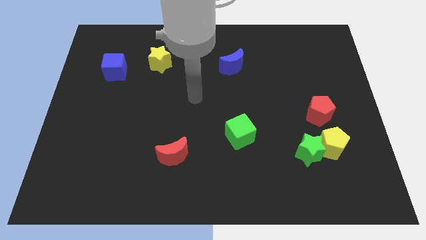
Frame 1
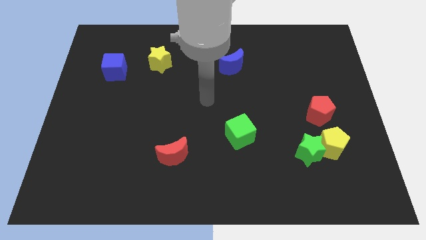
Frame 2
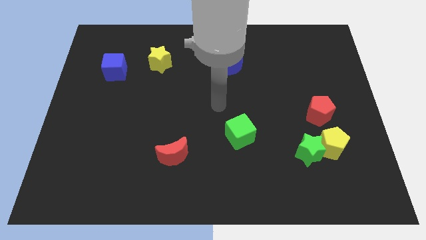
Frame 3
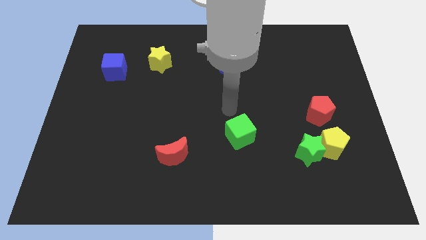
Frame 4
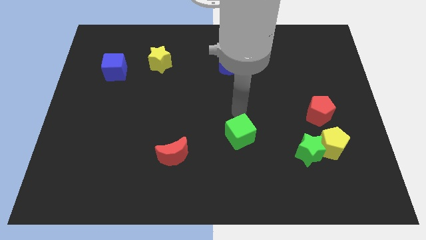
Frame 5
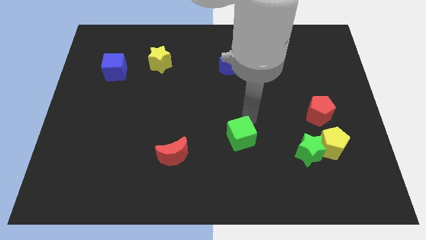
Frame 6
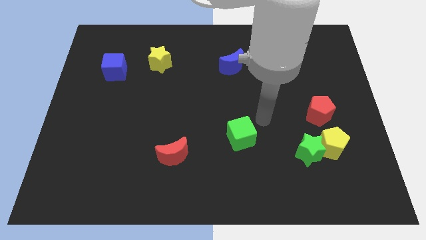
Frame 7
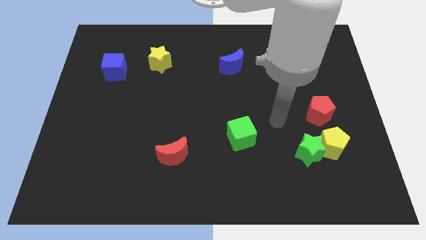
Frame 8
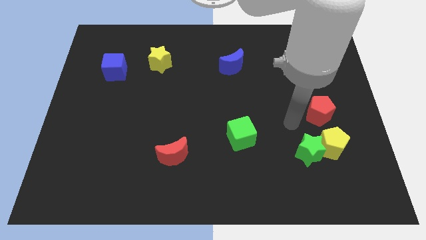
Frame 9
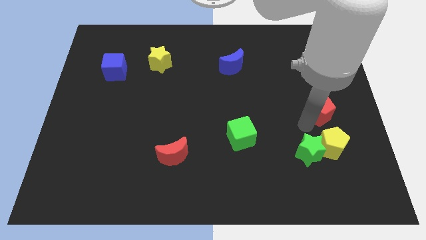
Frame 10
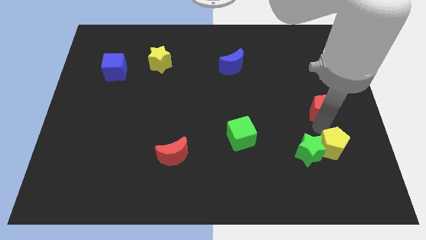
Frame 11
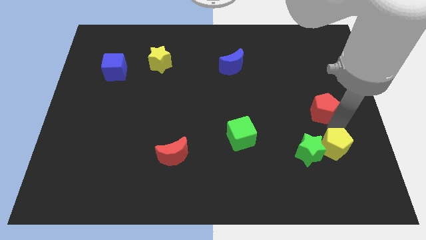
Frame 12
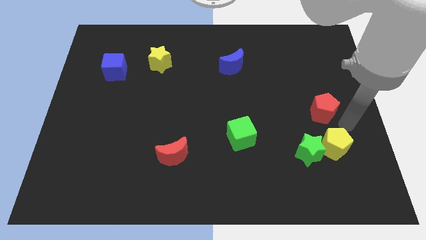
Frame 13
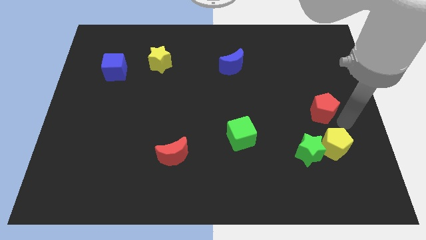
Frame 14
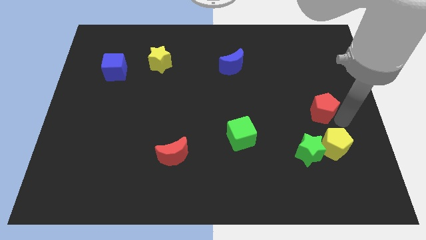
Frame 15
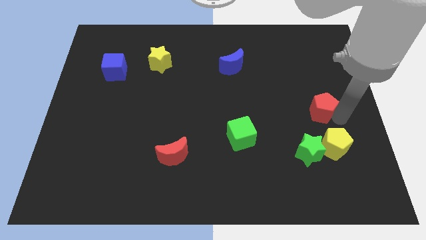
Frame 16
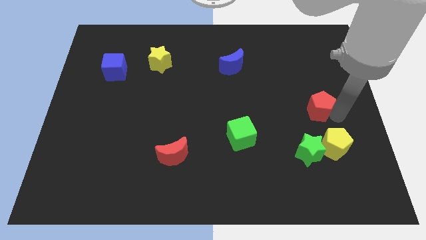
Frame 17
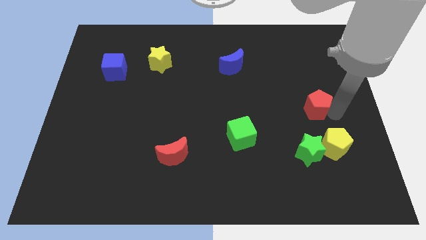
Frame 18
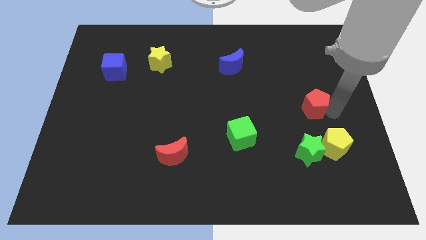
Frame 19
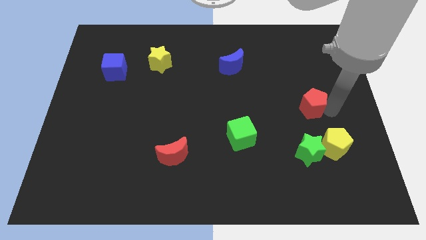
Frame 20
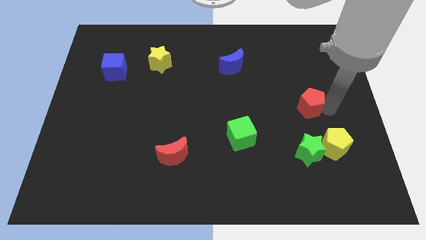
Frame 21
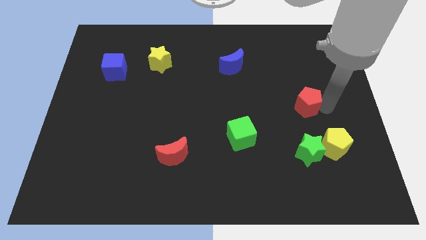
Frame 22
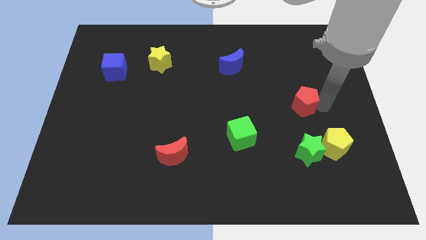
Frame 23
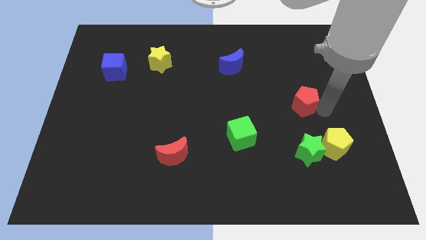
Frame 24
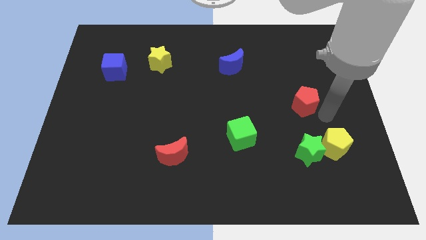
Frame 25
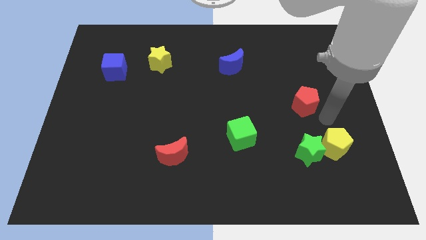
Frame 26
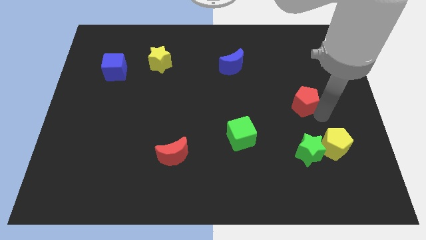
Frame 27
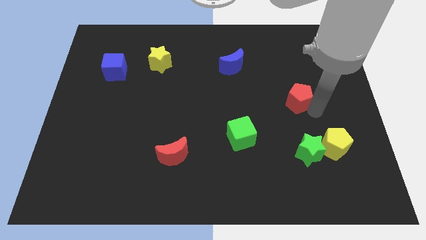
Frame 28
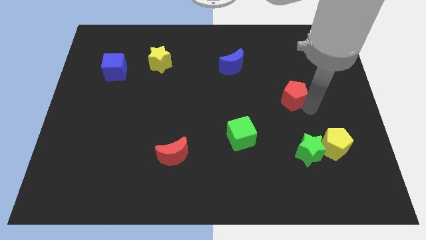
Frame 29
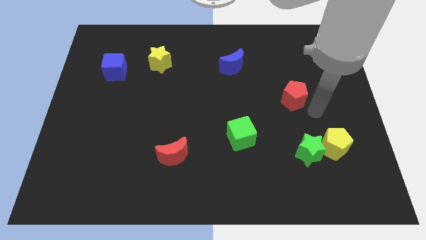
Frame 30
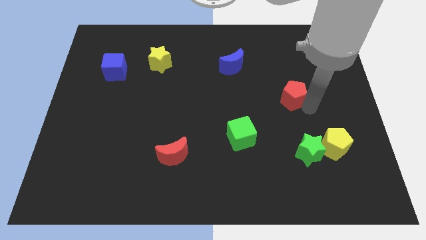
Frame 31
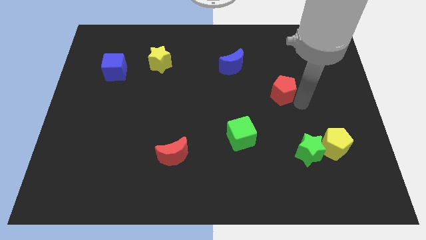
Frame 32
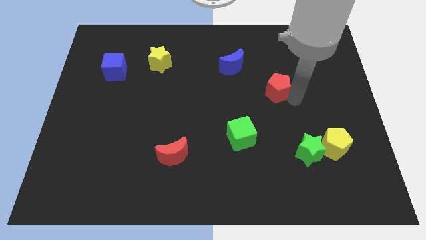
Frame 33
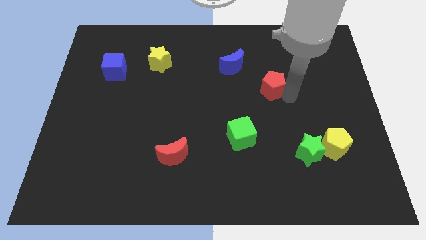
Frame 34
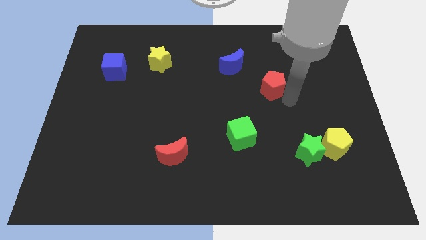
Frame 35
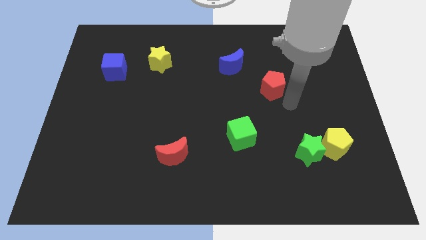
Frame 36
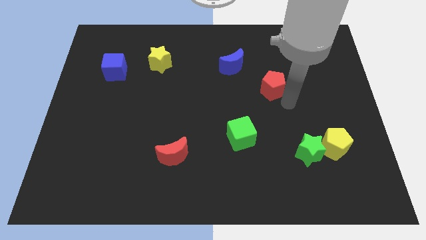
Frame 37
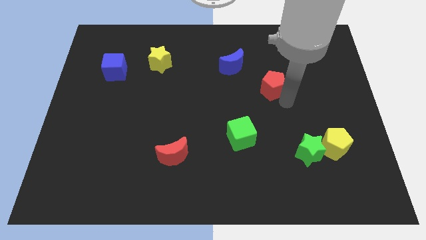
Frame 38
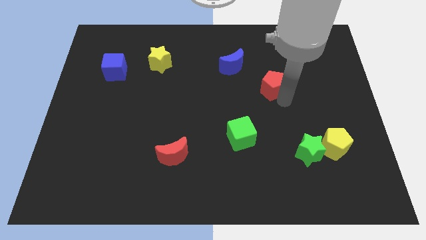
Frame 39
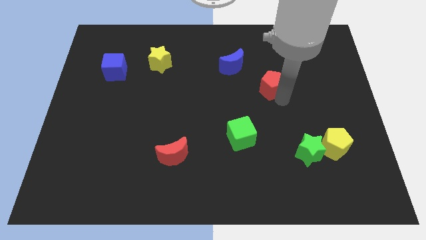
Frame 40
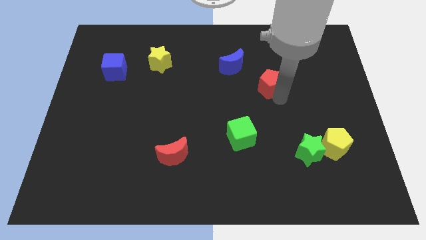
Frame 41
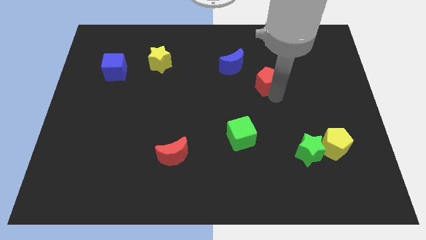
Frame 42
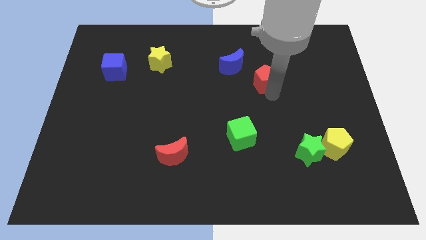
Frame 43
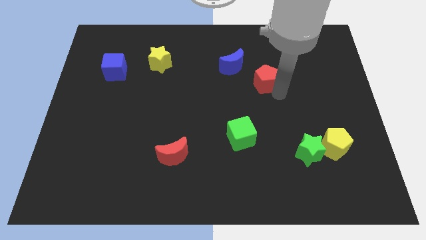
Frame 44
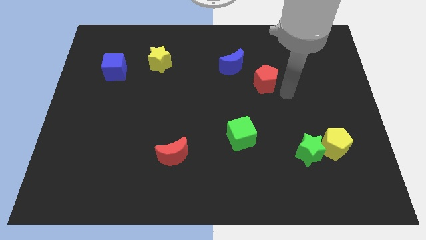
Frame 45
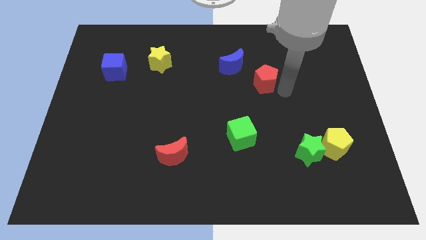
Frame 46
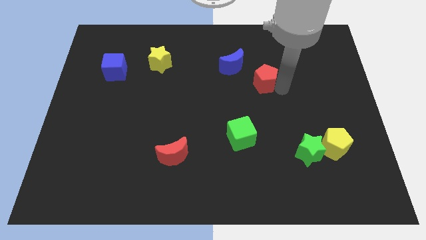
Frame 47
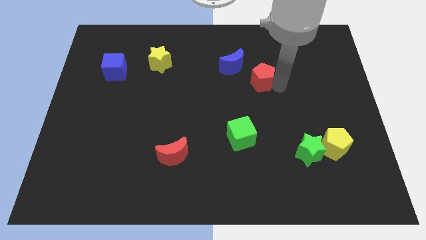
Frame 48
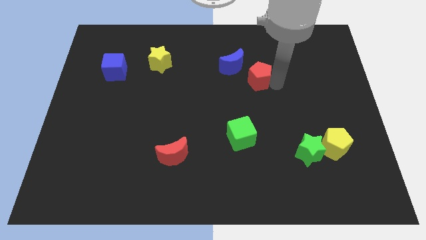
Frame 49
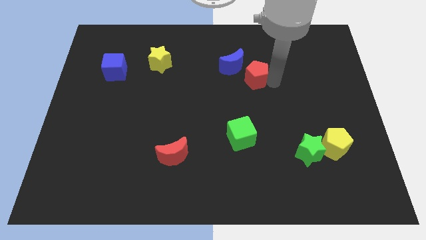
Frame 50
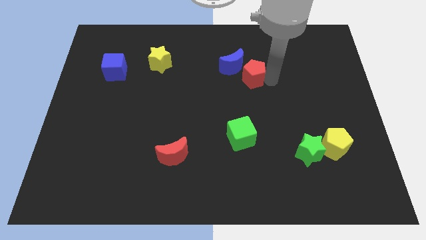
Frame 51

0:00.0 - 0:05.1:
push the red pentagon towards the blue moon

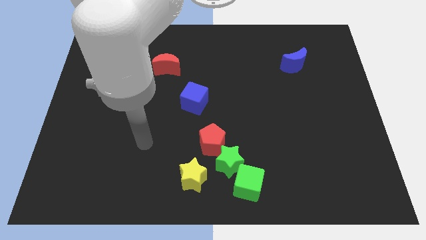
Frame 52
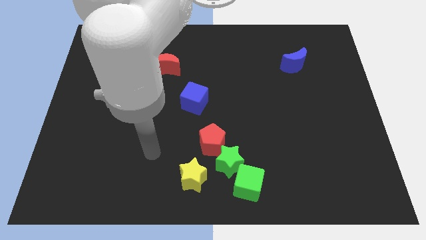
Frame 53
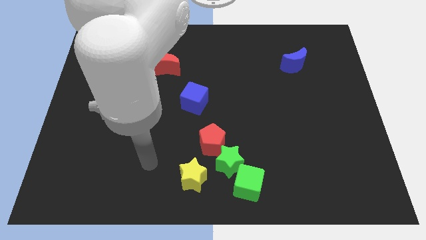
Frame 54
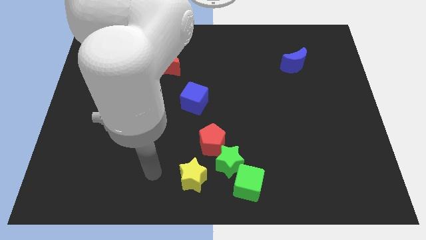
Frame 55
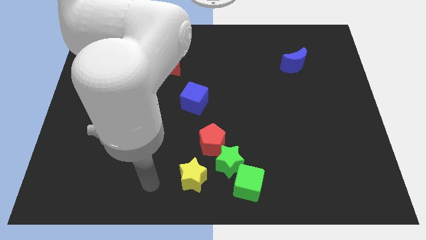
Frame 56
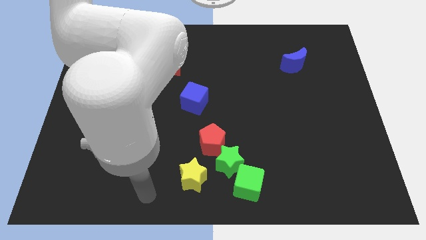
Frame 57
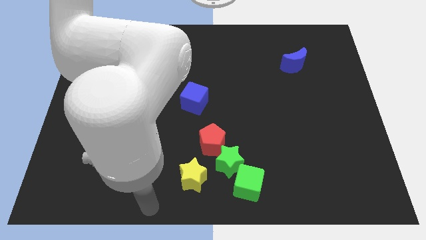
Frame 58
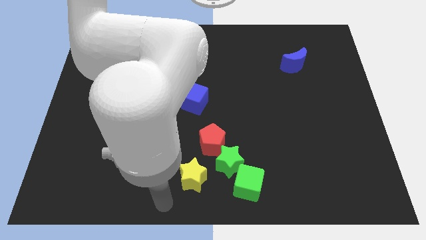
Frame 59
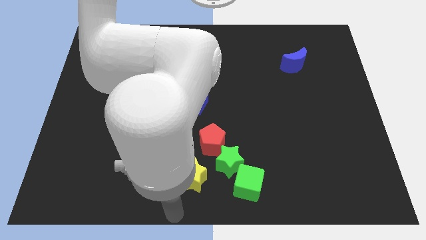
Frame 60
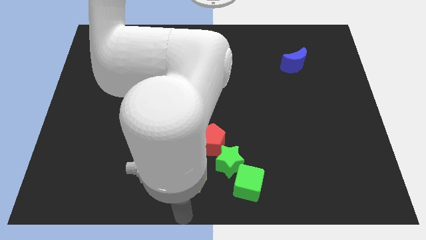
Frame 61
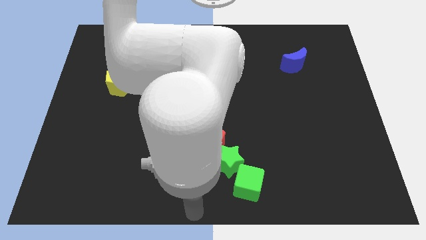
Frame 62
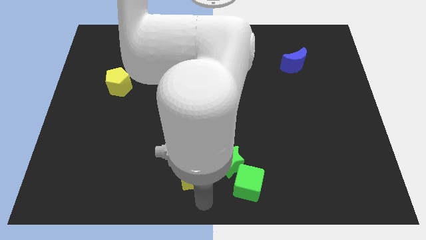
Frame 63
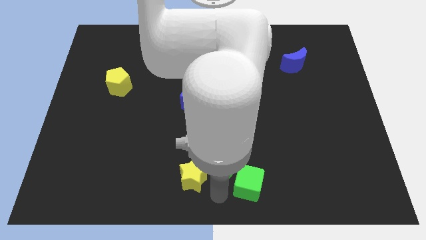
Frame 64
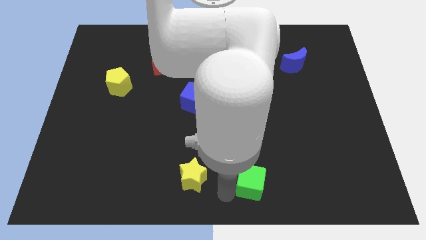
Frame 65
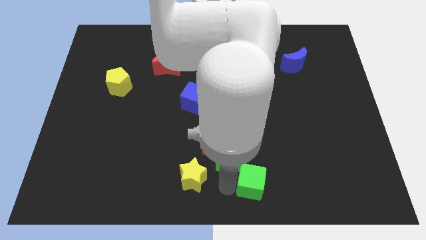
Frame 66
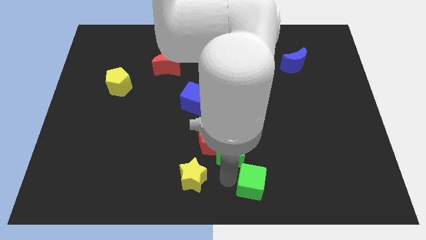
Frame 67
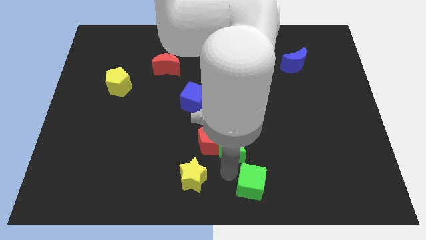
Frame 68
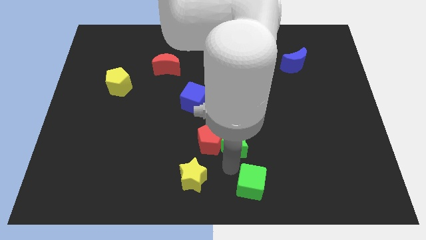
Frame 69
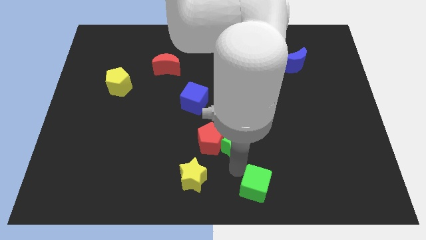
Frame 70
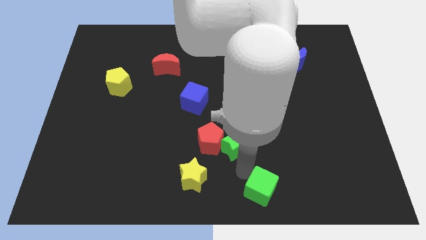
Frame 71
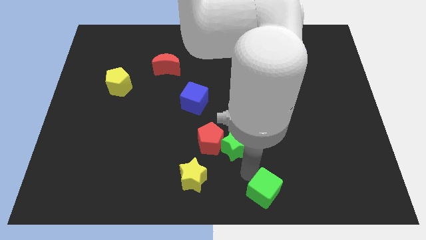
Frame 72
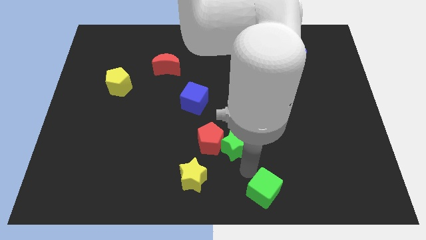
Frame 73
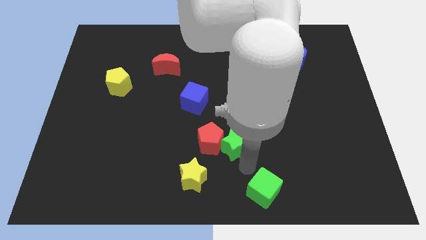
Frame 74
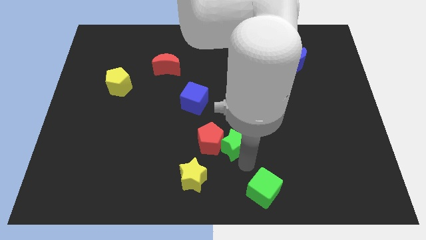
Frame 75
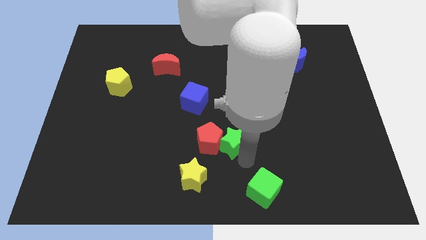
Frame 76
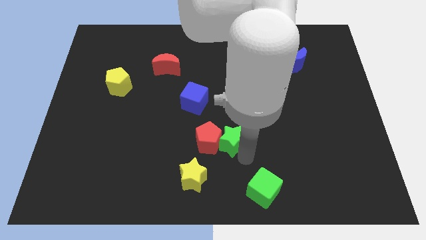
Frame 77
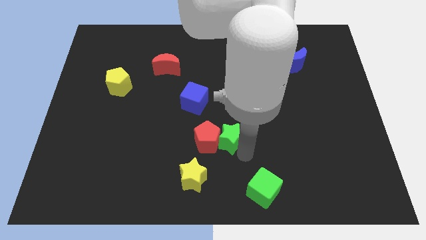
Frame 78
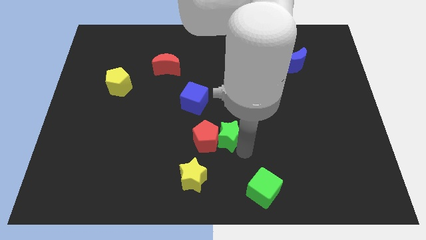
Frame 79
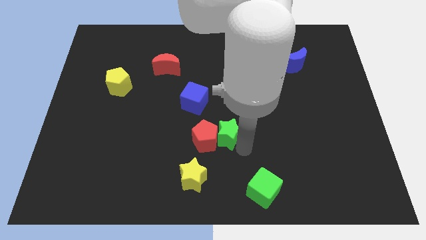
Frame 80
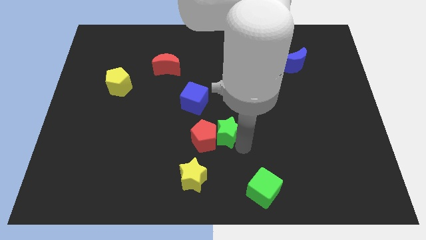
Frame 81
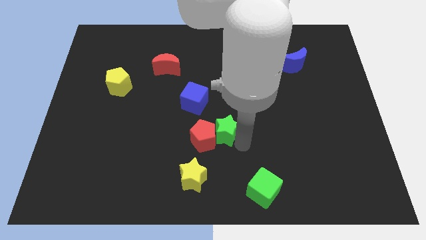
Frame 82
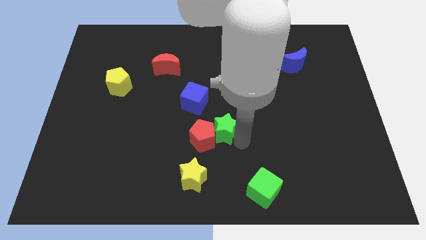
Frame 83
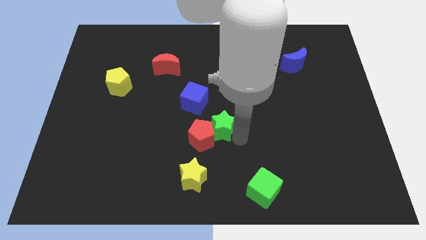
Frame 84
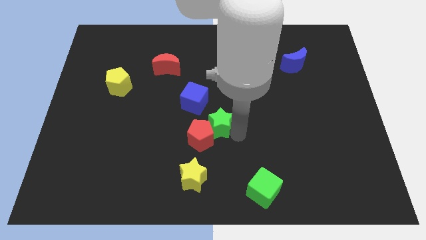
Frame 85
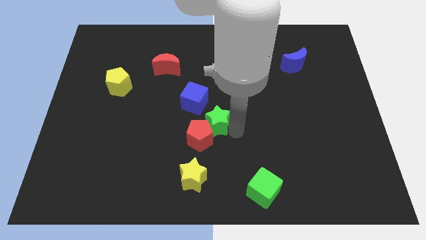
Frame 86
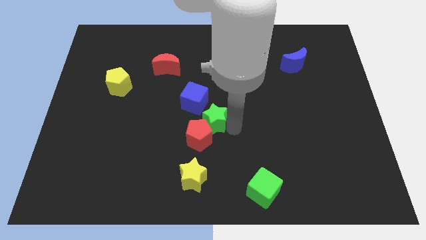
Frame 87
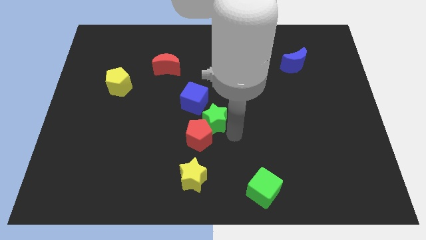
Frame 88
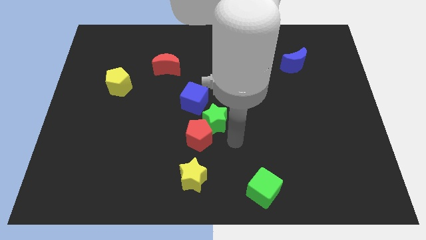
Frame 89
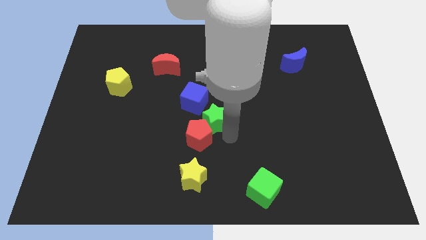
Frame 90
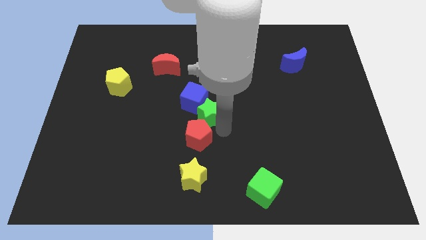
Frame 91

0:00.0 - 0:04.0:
put the green star close to the blue cube
